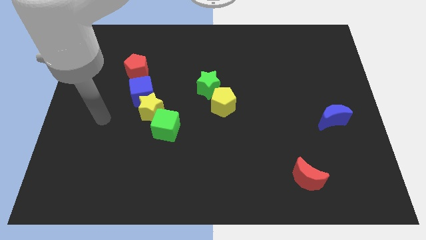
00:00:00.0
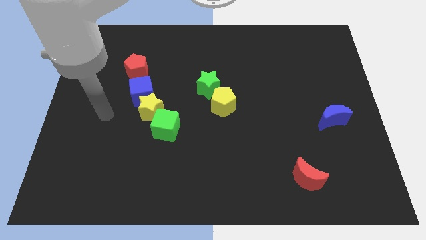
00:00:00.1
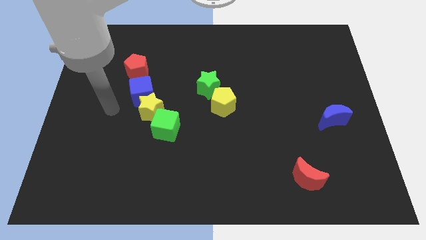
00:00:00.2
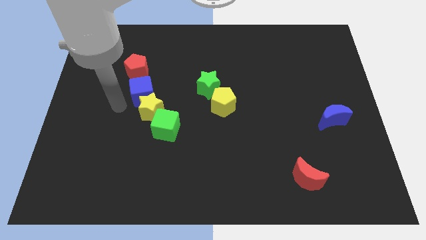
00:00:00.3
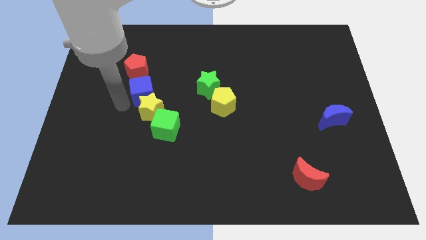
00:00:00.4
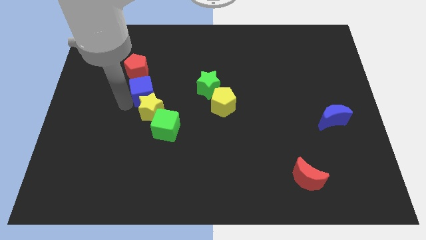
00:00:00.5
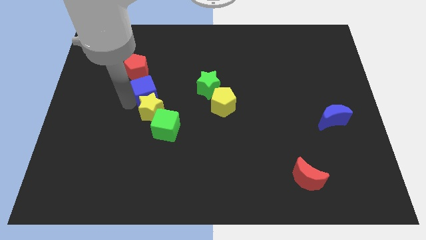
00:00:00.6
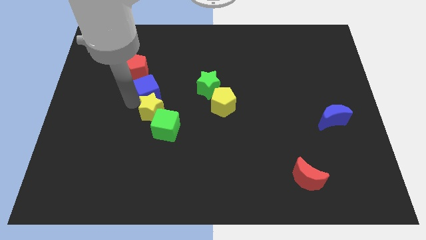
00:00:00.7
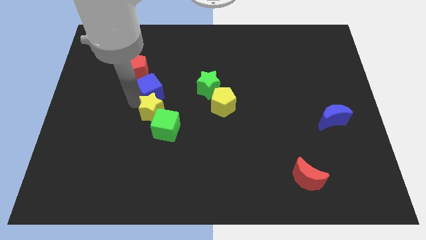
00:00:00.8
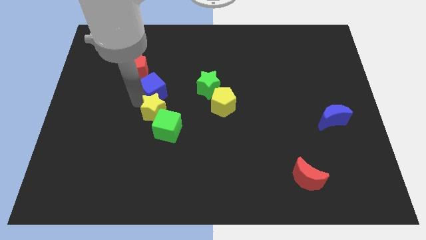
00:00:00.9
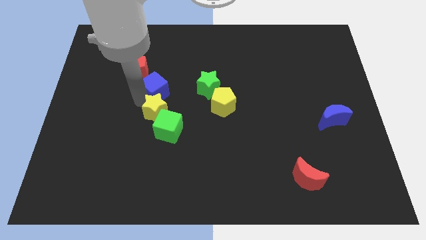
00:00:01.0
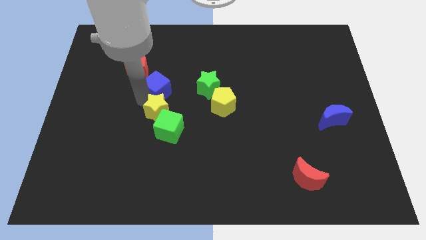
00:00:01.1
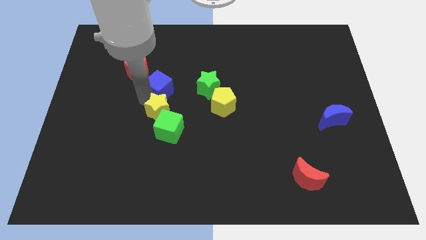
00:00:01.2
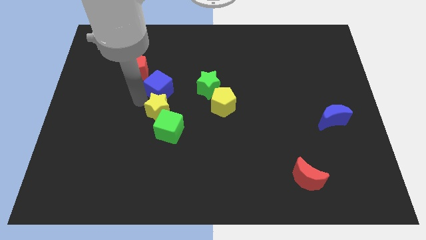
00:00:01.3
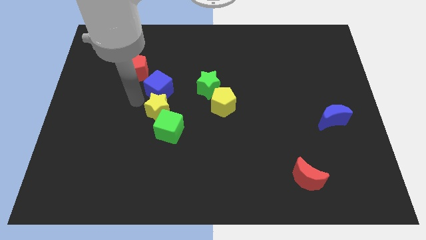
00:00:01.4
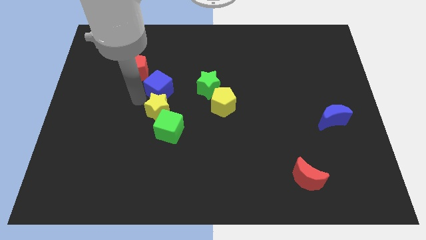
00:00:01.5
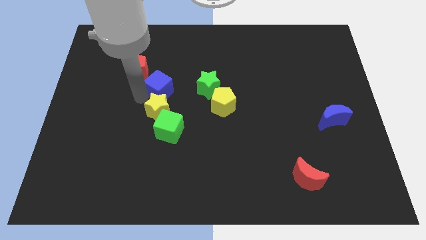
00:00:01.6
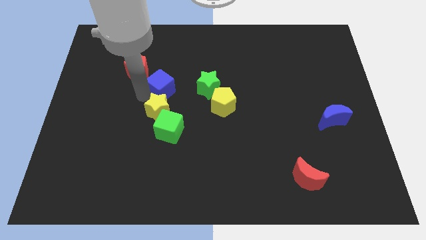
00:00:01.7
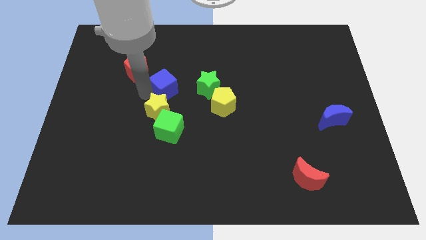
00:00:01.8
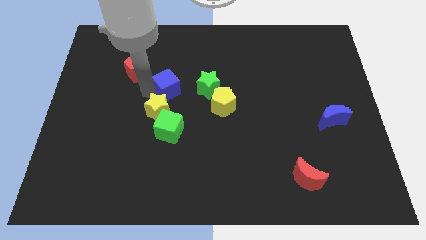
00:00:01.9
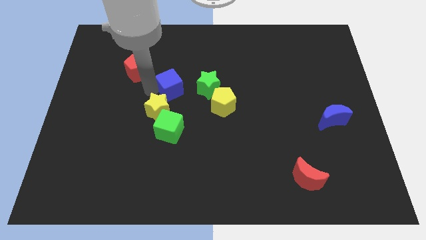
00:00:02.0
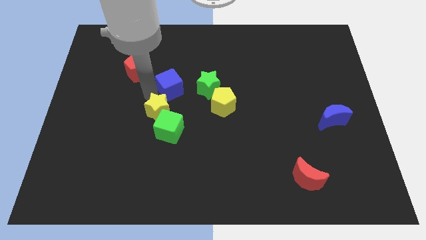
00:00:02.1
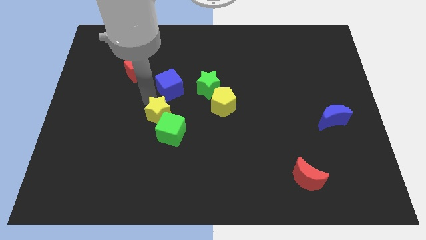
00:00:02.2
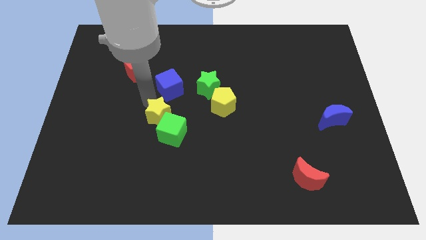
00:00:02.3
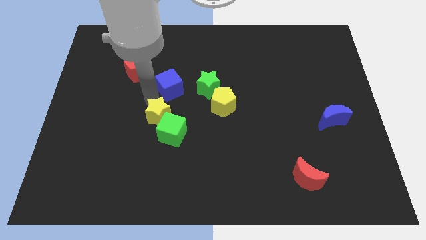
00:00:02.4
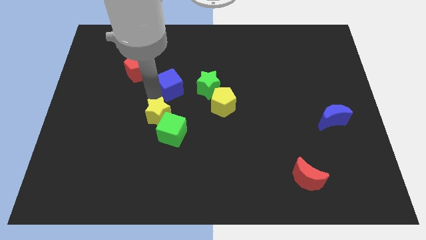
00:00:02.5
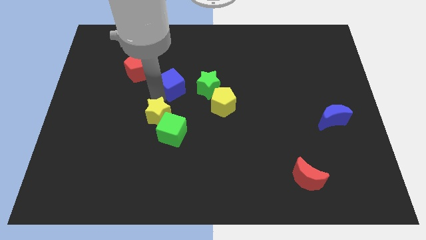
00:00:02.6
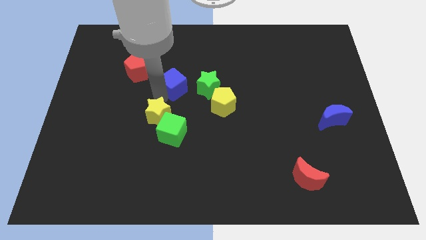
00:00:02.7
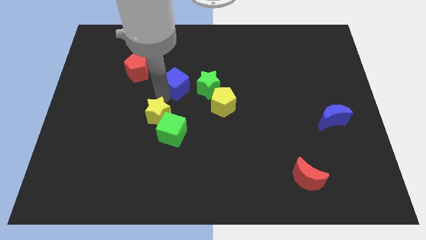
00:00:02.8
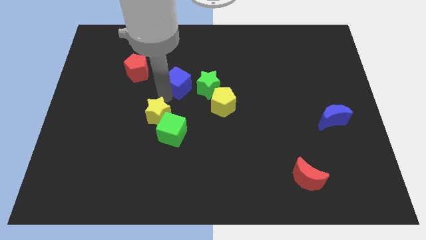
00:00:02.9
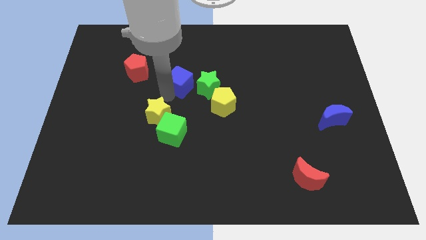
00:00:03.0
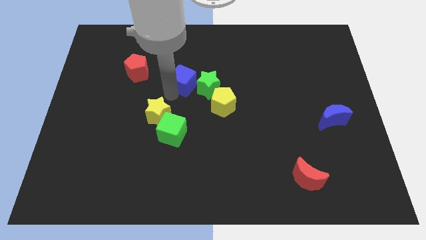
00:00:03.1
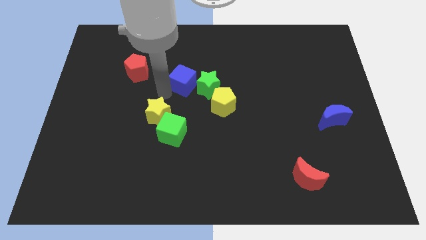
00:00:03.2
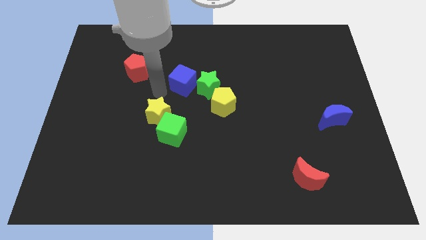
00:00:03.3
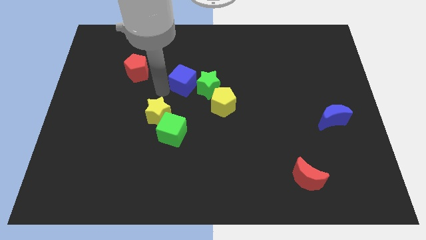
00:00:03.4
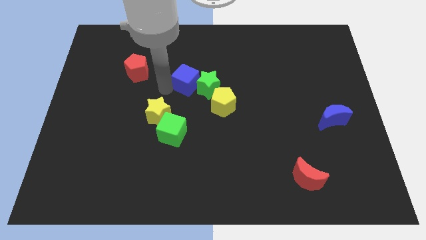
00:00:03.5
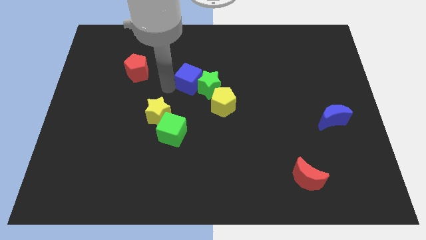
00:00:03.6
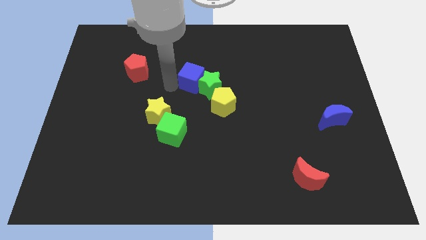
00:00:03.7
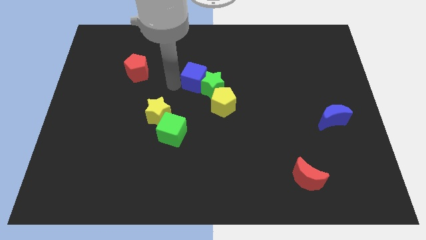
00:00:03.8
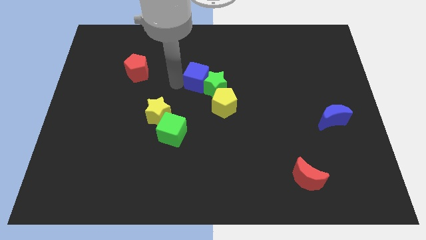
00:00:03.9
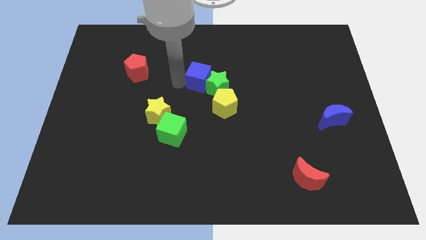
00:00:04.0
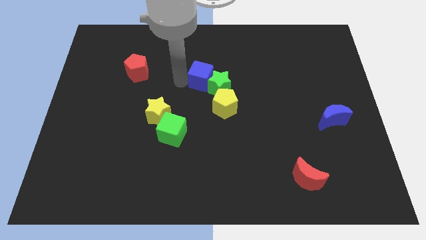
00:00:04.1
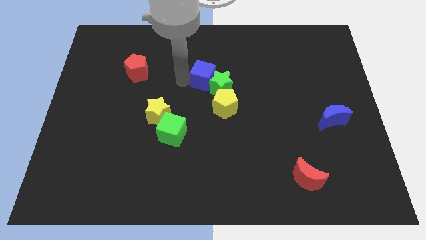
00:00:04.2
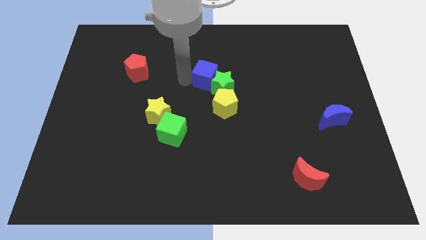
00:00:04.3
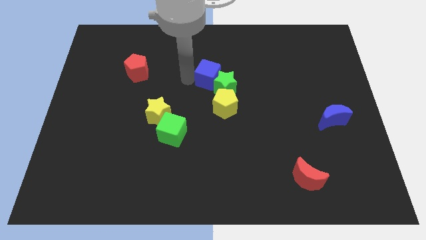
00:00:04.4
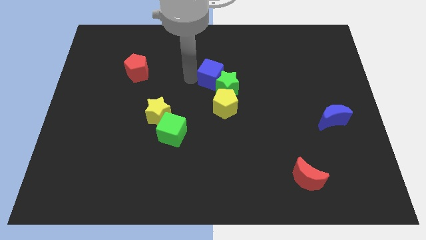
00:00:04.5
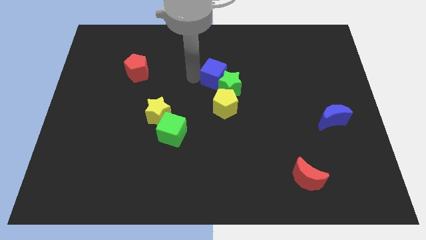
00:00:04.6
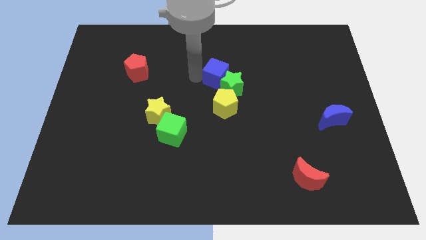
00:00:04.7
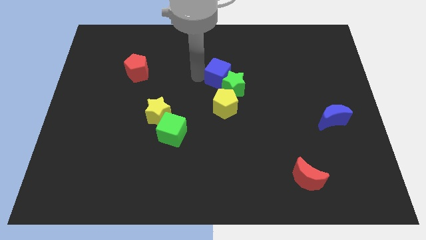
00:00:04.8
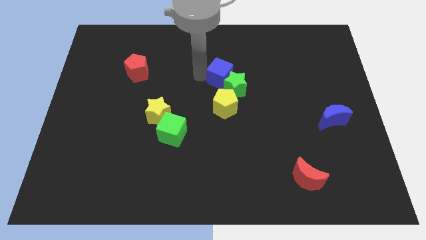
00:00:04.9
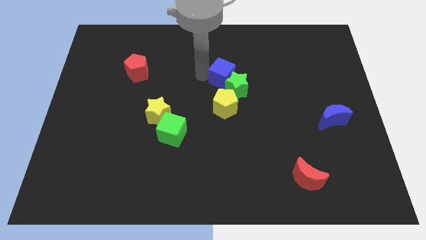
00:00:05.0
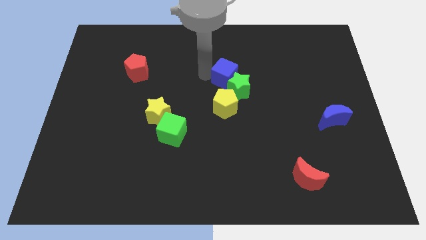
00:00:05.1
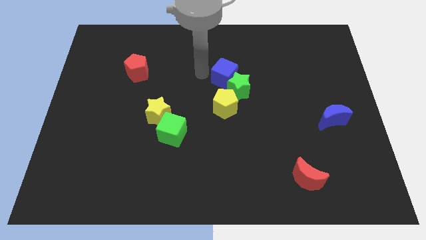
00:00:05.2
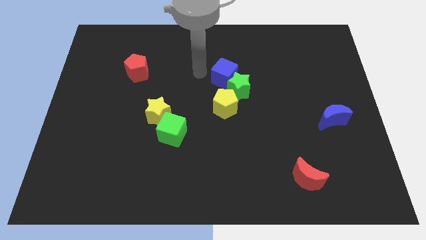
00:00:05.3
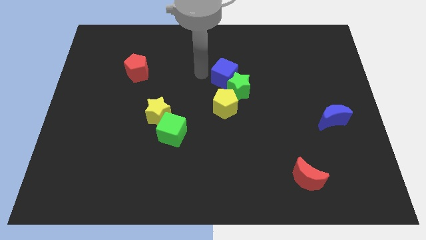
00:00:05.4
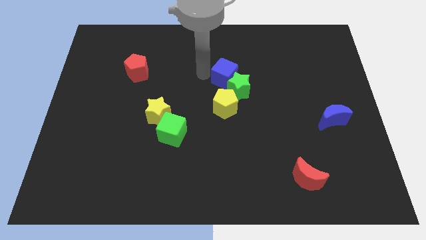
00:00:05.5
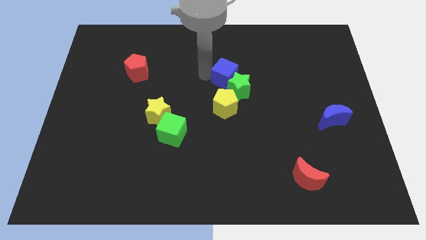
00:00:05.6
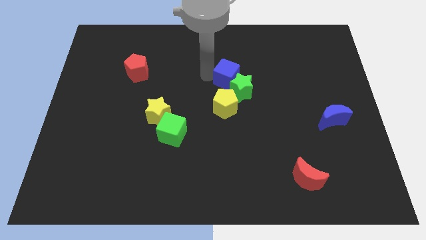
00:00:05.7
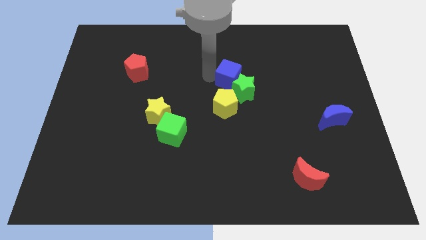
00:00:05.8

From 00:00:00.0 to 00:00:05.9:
push the blue cube right

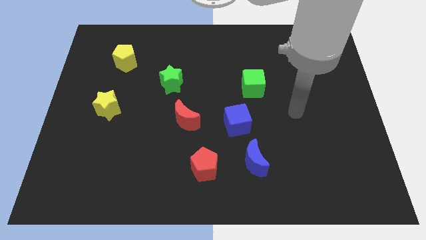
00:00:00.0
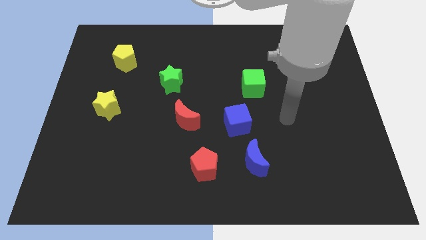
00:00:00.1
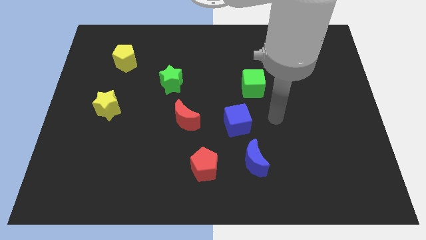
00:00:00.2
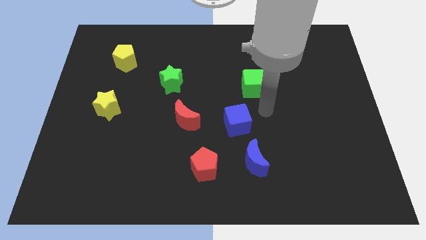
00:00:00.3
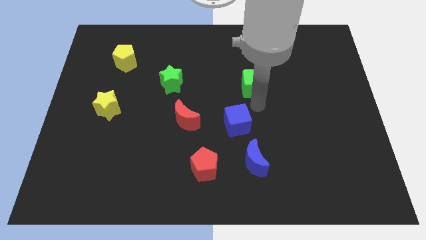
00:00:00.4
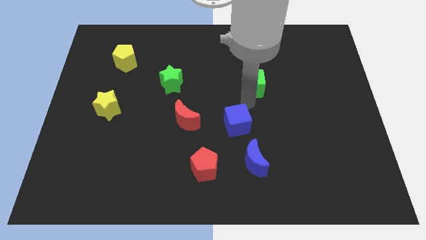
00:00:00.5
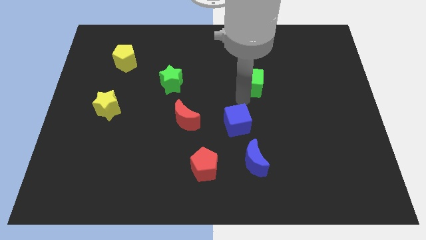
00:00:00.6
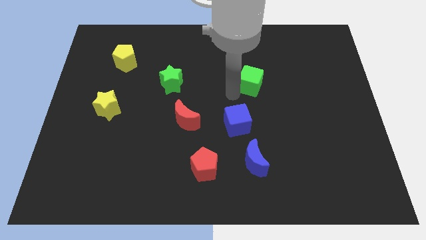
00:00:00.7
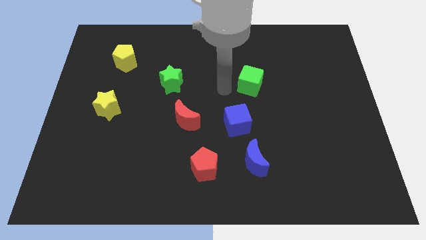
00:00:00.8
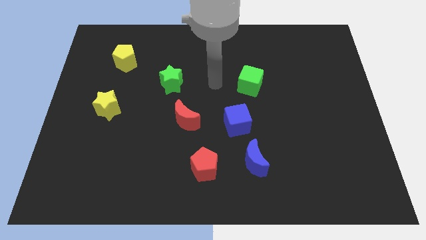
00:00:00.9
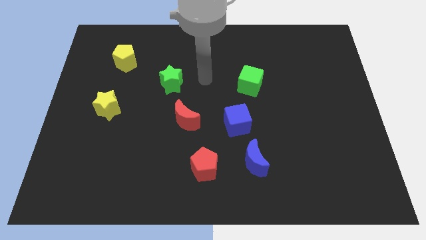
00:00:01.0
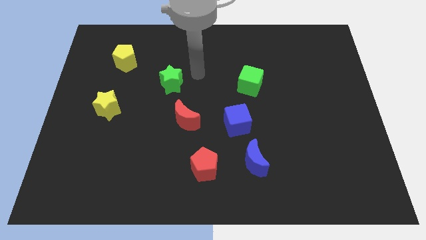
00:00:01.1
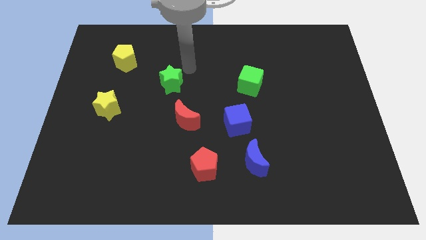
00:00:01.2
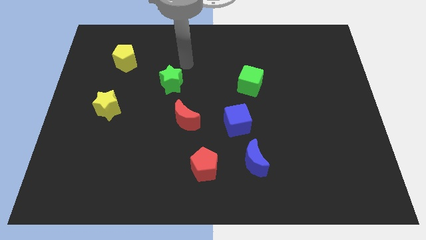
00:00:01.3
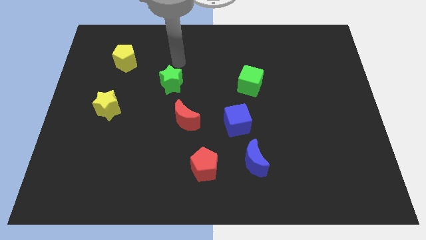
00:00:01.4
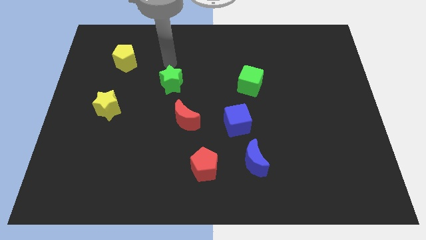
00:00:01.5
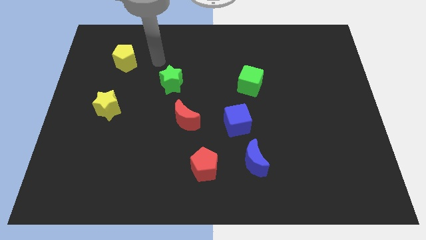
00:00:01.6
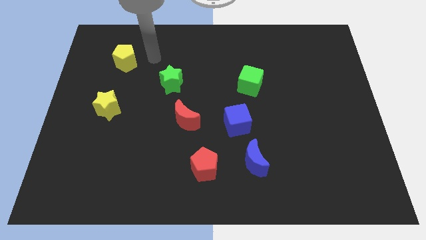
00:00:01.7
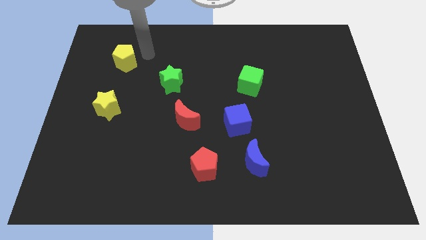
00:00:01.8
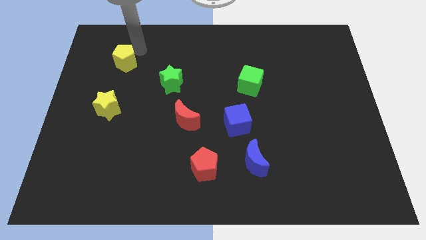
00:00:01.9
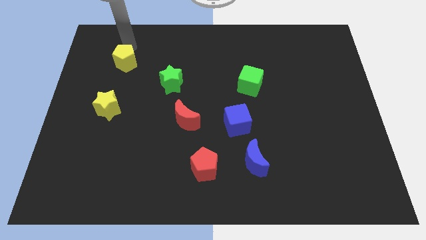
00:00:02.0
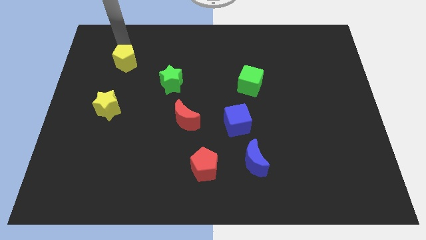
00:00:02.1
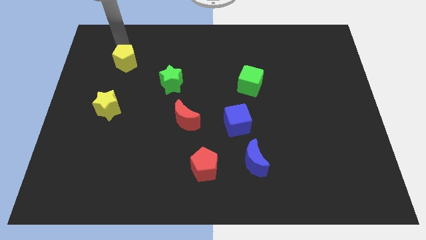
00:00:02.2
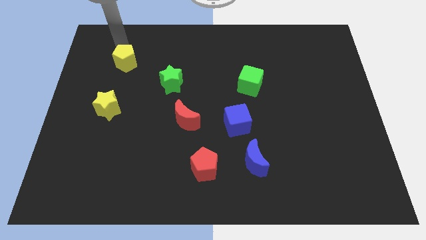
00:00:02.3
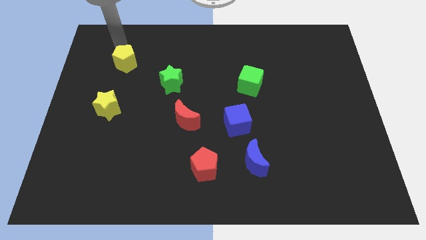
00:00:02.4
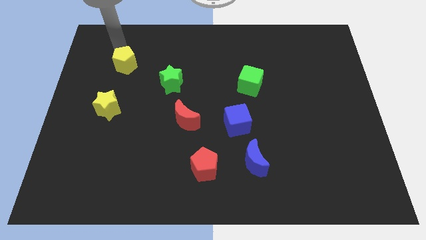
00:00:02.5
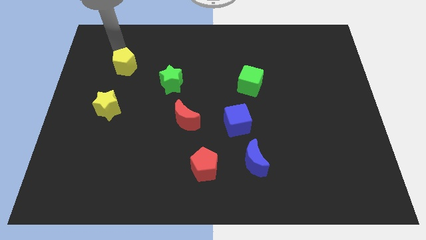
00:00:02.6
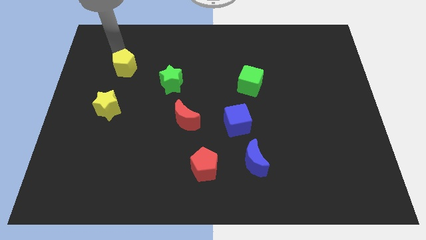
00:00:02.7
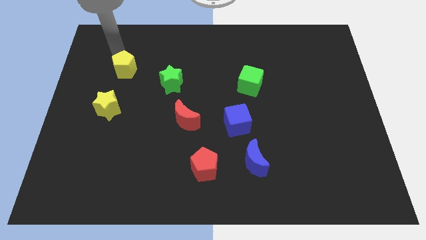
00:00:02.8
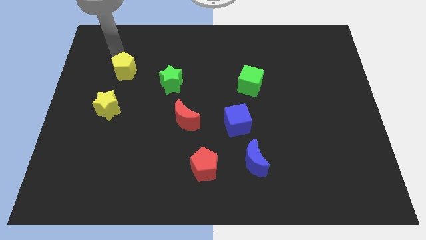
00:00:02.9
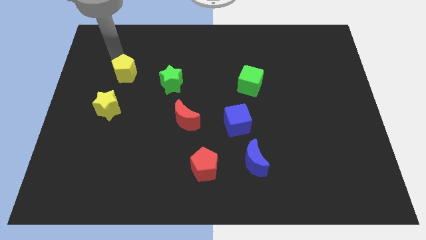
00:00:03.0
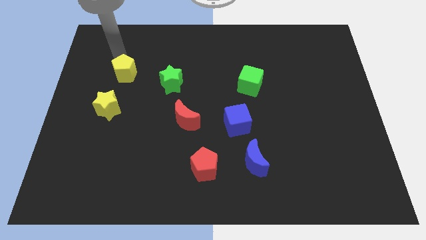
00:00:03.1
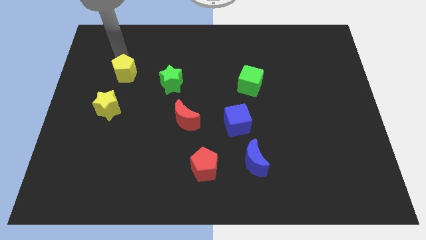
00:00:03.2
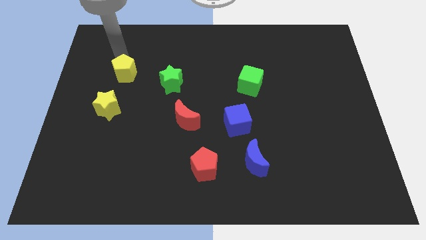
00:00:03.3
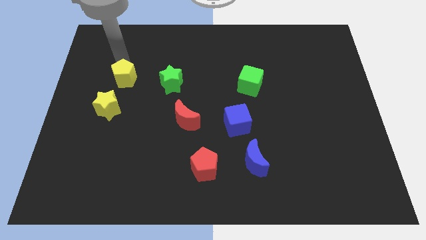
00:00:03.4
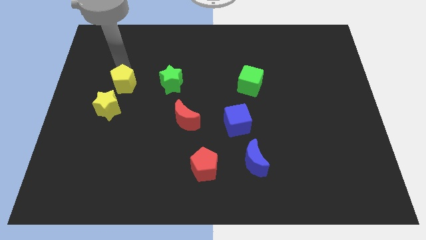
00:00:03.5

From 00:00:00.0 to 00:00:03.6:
slightly move the yellow pentagon downwards
